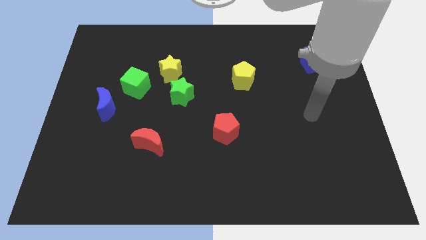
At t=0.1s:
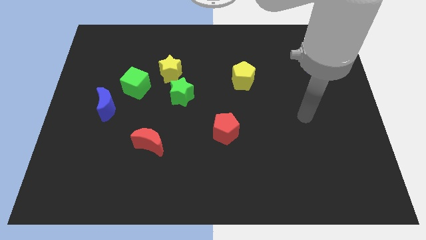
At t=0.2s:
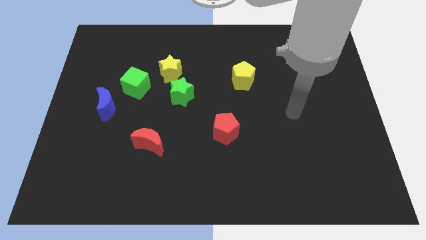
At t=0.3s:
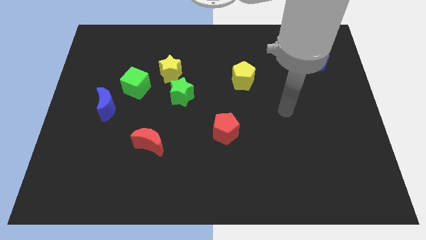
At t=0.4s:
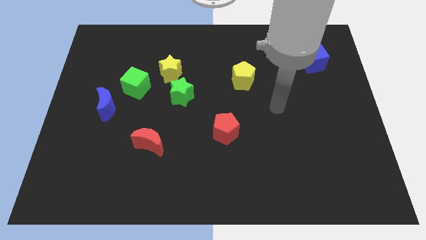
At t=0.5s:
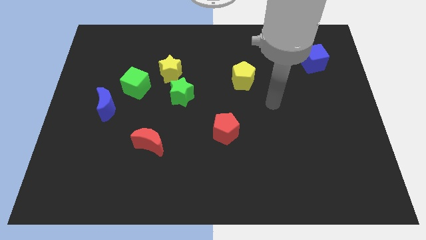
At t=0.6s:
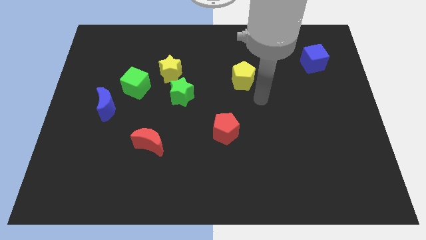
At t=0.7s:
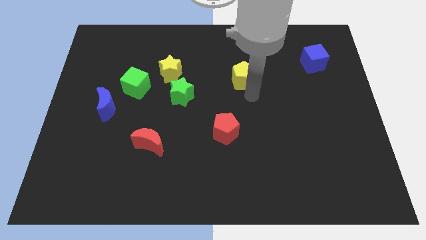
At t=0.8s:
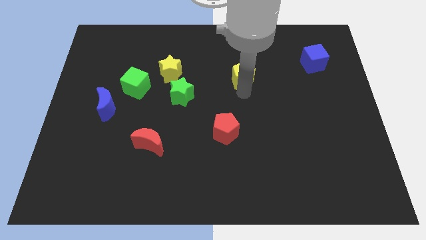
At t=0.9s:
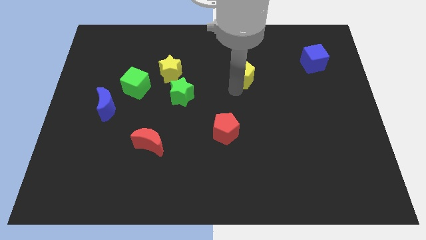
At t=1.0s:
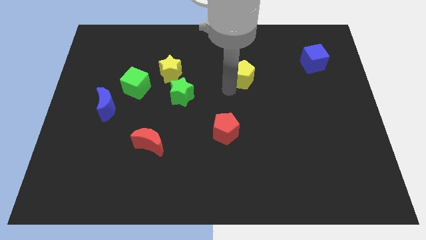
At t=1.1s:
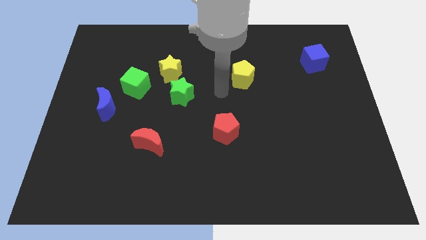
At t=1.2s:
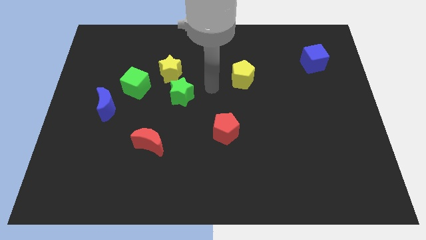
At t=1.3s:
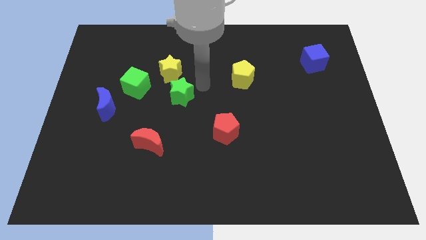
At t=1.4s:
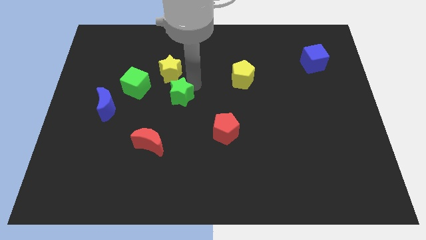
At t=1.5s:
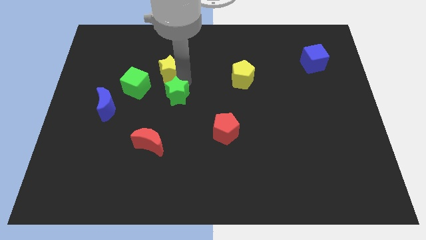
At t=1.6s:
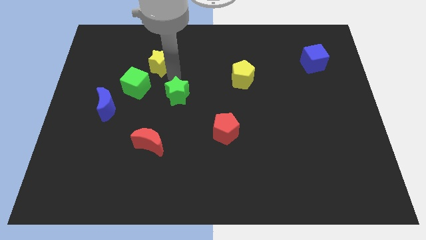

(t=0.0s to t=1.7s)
move the green star away from the yellow star

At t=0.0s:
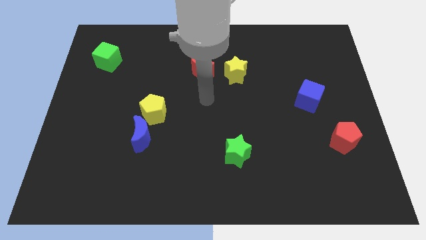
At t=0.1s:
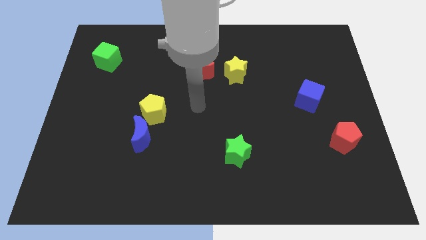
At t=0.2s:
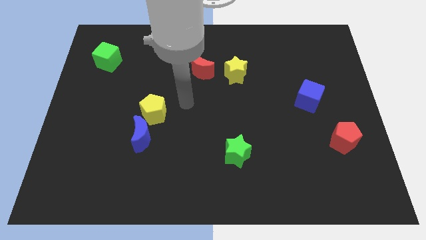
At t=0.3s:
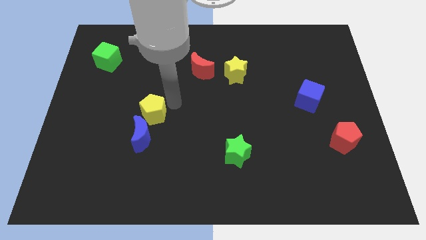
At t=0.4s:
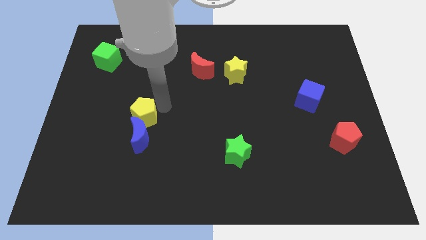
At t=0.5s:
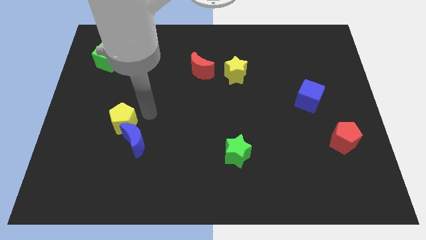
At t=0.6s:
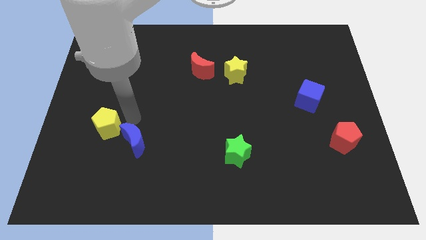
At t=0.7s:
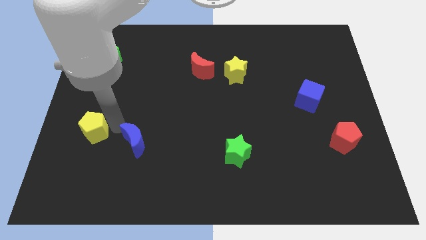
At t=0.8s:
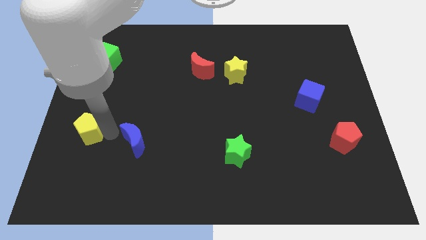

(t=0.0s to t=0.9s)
separate the blue moon from the yellow pentagon

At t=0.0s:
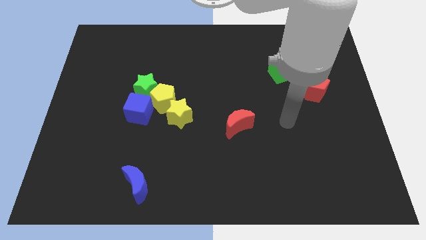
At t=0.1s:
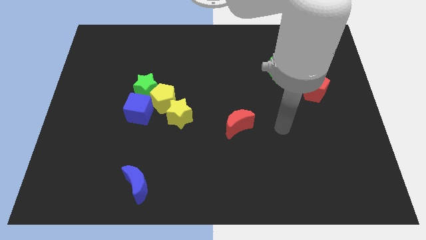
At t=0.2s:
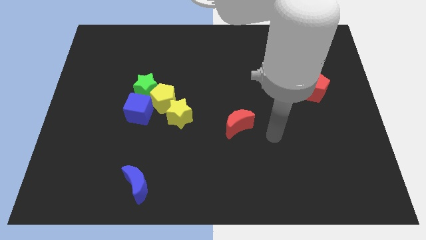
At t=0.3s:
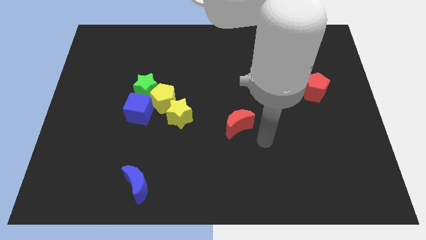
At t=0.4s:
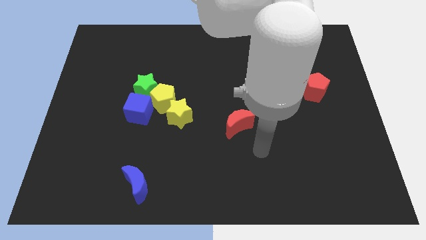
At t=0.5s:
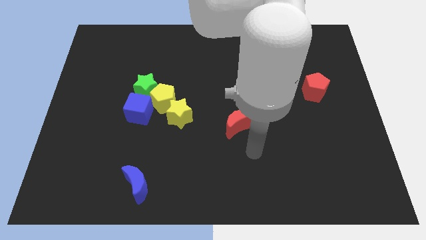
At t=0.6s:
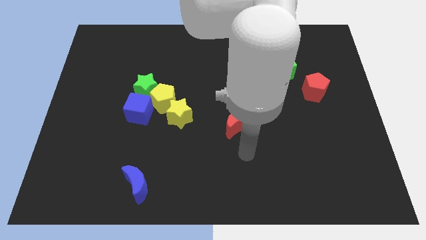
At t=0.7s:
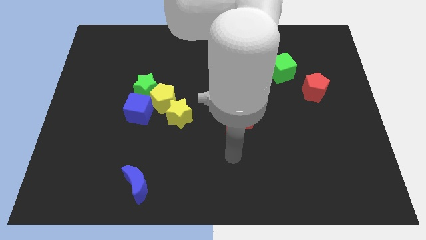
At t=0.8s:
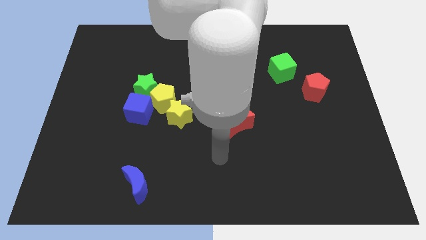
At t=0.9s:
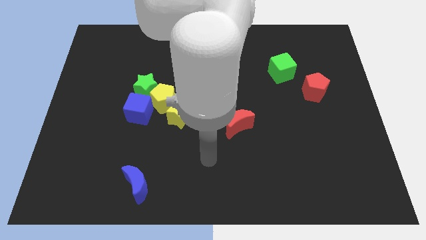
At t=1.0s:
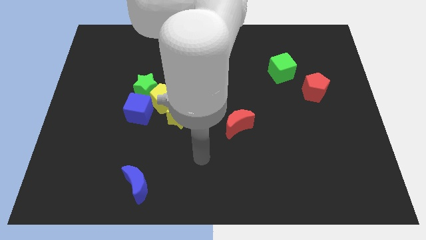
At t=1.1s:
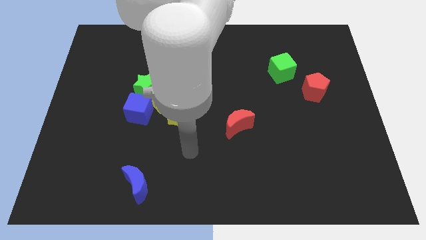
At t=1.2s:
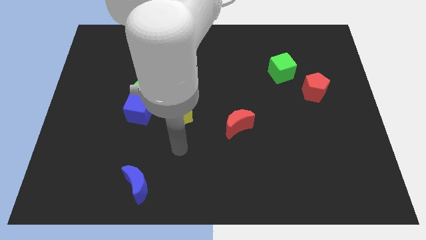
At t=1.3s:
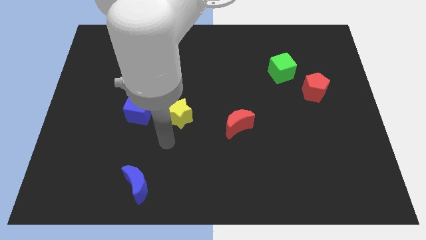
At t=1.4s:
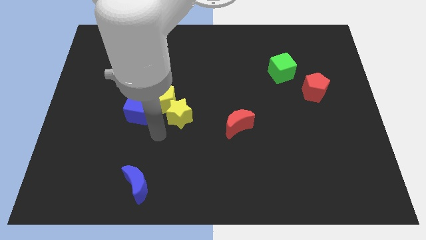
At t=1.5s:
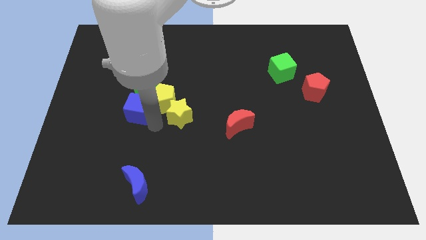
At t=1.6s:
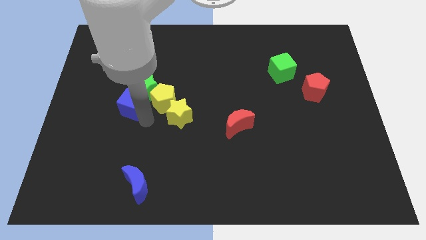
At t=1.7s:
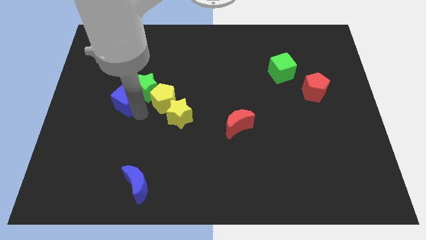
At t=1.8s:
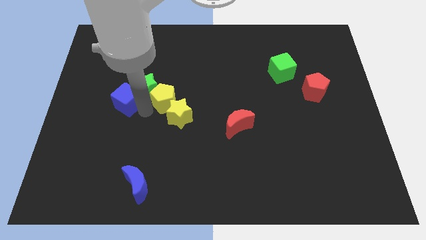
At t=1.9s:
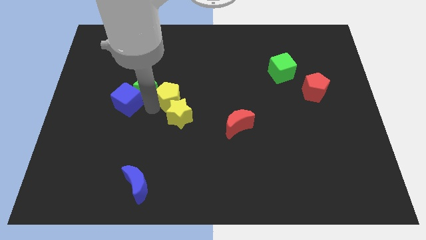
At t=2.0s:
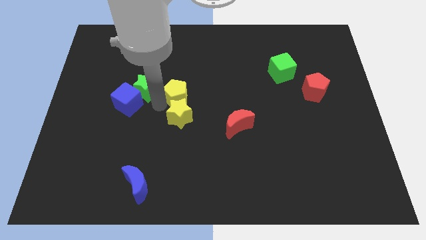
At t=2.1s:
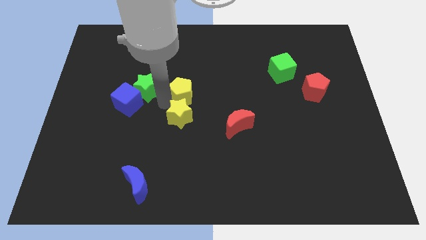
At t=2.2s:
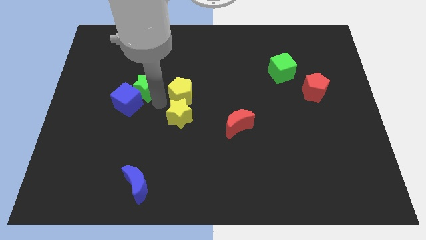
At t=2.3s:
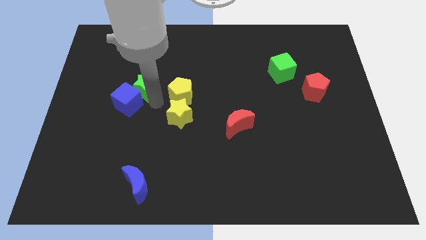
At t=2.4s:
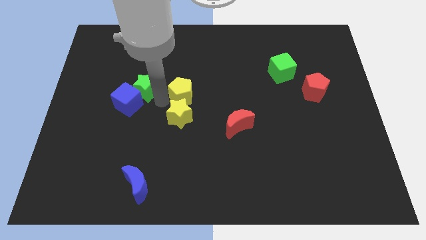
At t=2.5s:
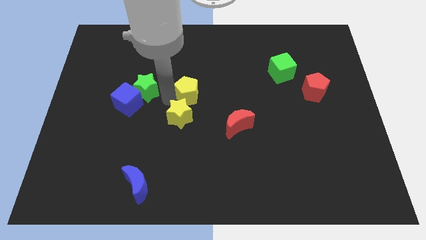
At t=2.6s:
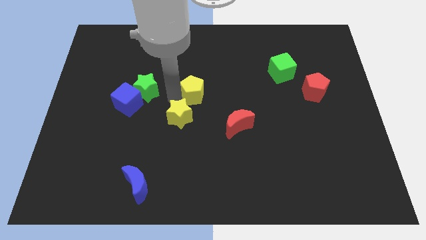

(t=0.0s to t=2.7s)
separate the yellow pentagon from the yellow star, green star, and blue cube

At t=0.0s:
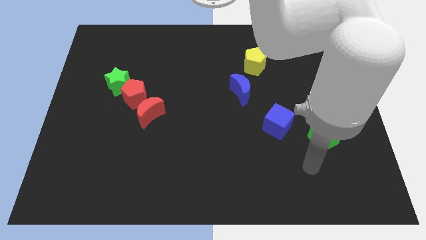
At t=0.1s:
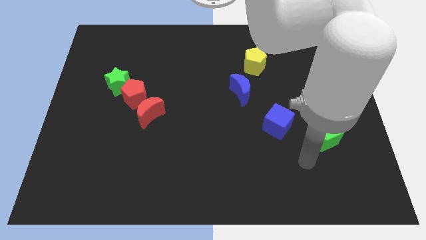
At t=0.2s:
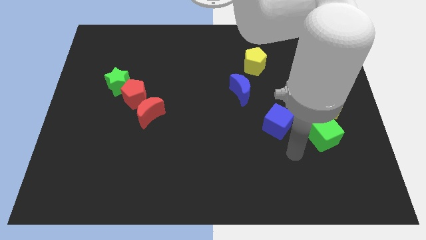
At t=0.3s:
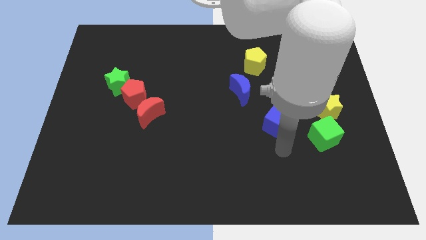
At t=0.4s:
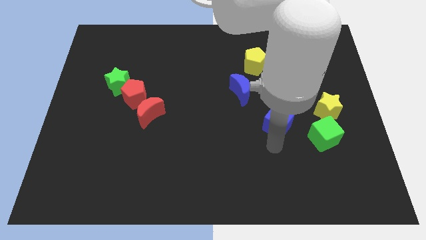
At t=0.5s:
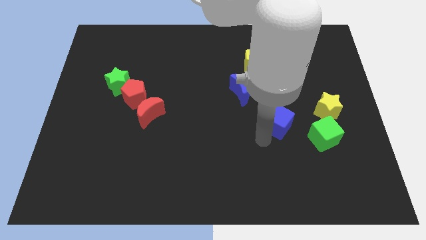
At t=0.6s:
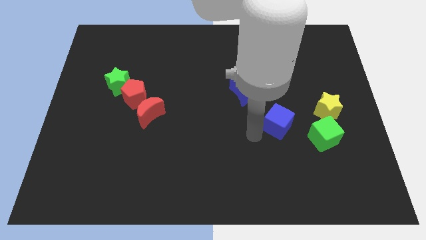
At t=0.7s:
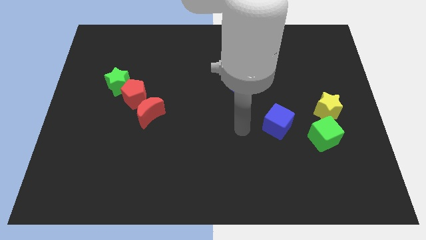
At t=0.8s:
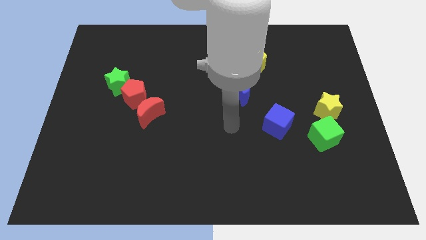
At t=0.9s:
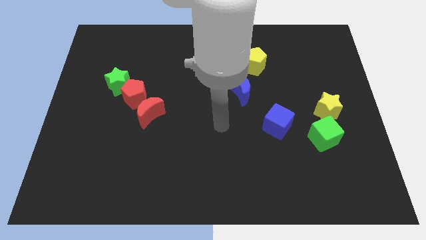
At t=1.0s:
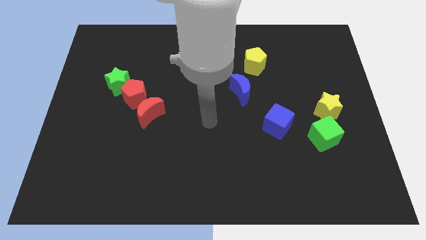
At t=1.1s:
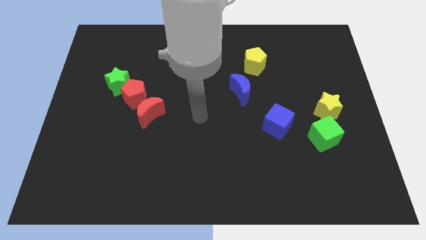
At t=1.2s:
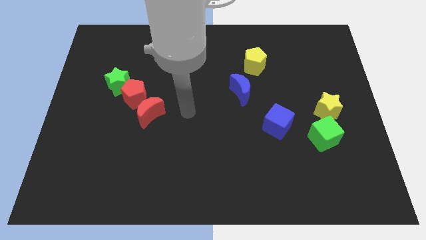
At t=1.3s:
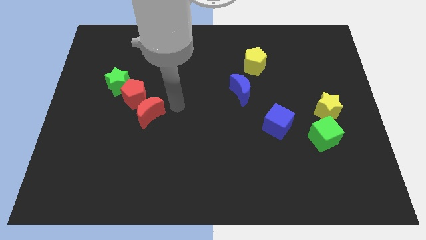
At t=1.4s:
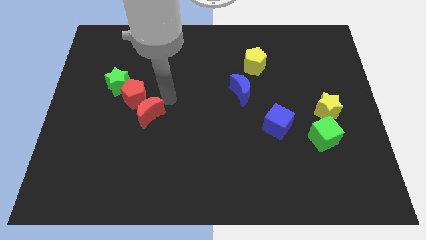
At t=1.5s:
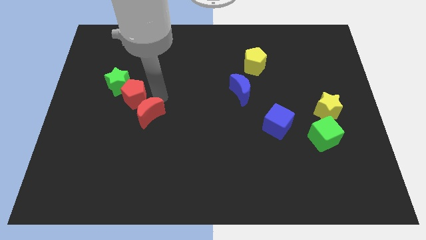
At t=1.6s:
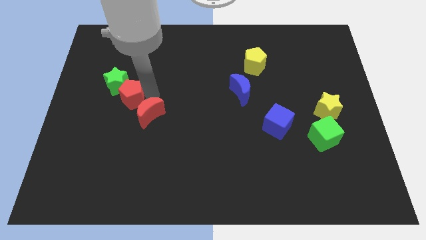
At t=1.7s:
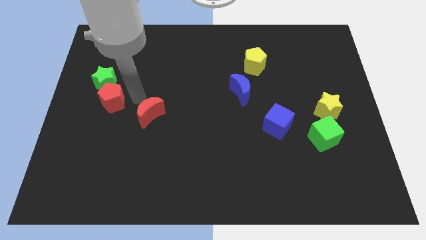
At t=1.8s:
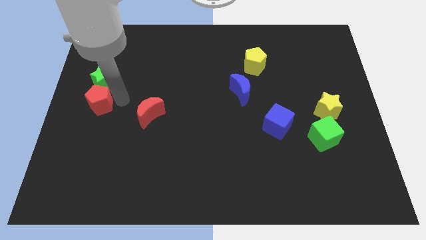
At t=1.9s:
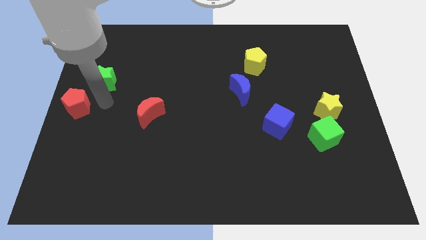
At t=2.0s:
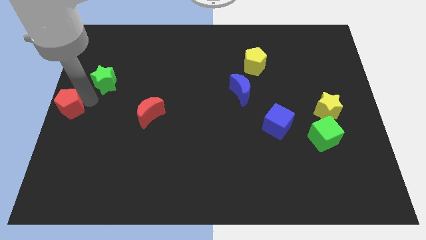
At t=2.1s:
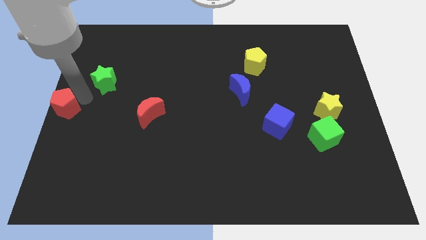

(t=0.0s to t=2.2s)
pull the green star apart from the red pentagon

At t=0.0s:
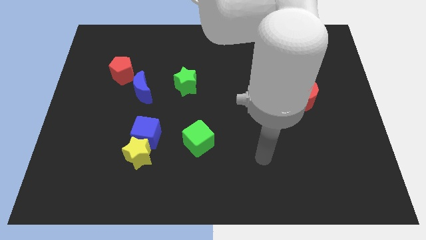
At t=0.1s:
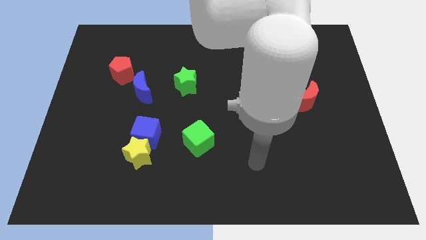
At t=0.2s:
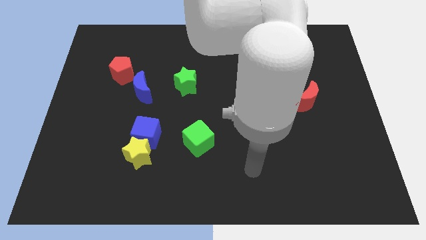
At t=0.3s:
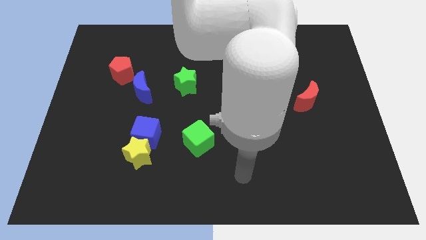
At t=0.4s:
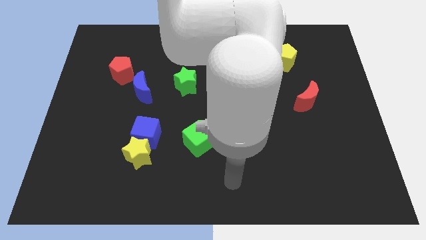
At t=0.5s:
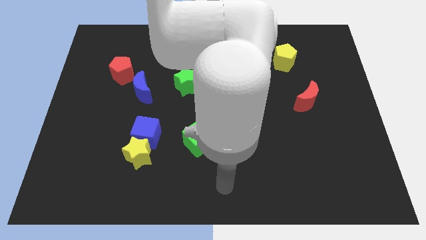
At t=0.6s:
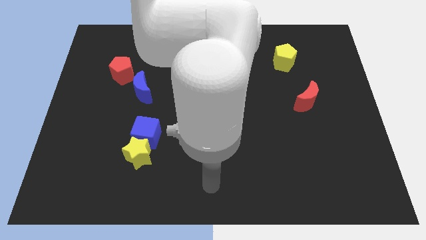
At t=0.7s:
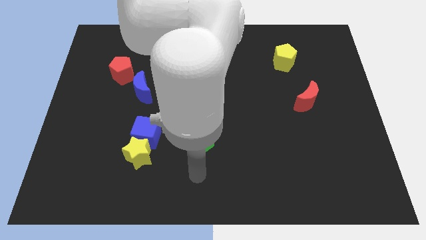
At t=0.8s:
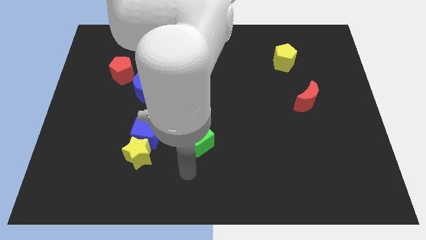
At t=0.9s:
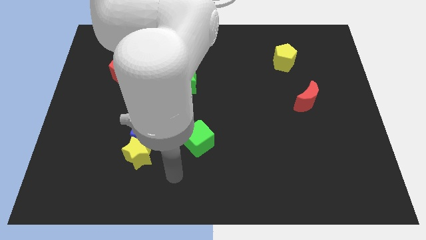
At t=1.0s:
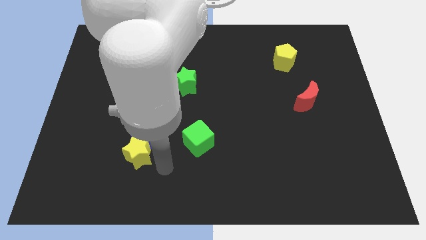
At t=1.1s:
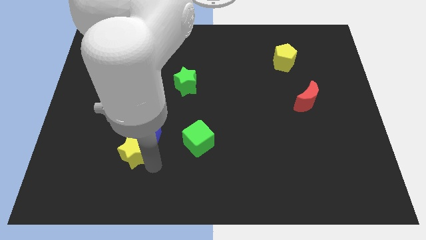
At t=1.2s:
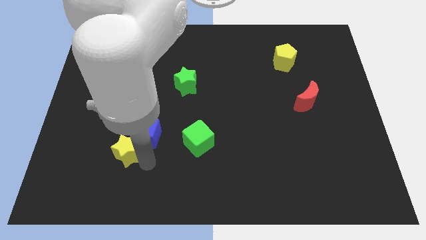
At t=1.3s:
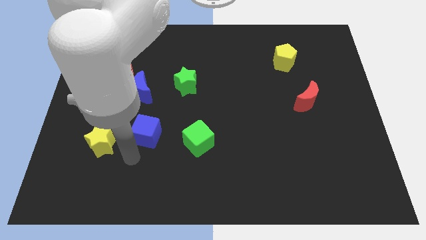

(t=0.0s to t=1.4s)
pull the blue cube apart from the yellow star

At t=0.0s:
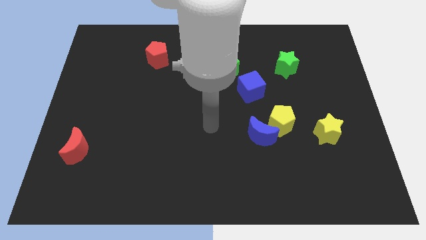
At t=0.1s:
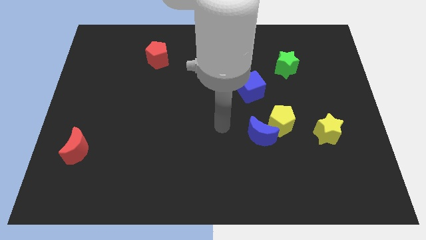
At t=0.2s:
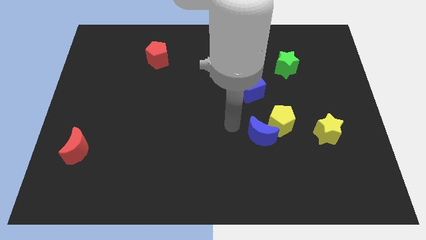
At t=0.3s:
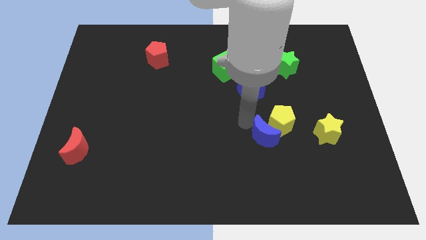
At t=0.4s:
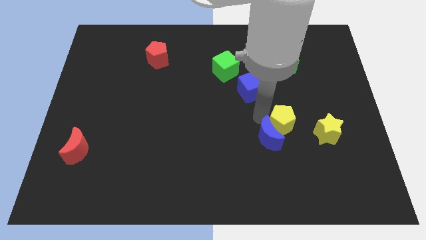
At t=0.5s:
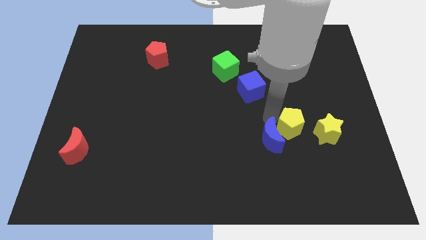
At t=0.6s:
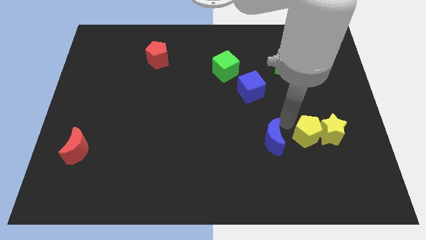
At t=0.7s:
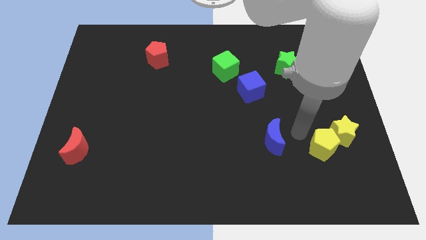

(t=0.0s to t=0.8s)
move the blue moon away from the yellow pentagon
